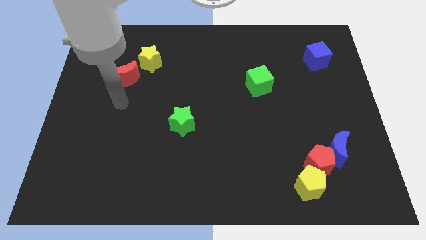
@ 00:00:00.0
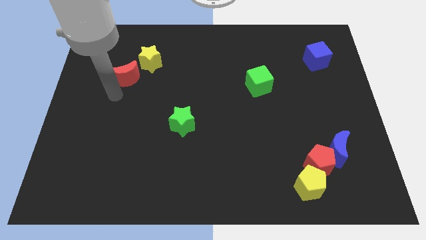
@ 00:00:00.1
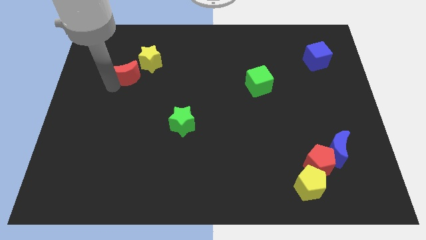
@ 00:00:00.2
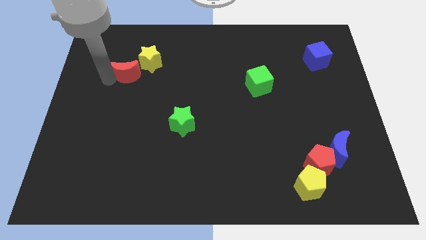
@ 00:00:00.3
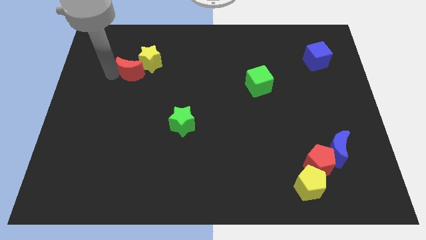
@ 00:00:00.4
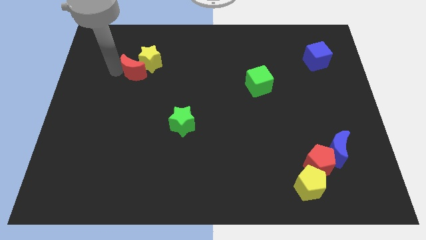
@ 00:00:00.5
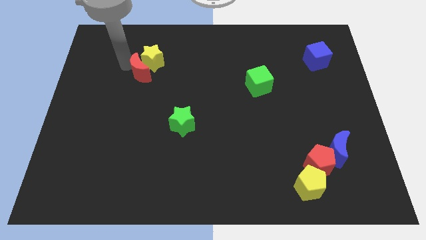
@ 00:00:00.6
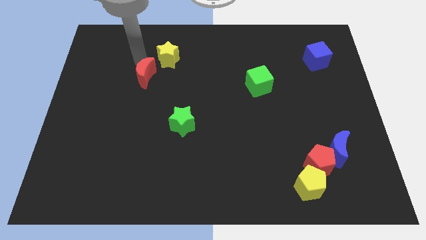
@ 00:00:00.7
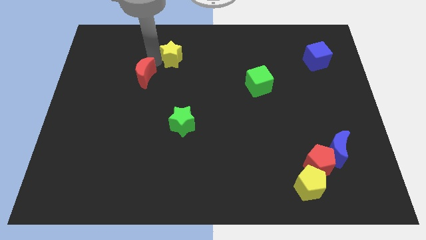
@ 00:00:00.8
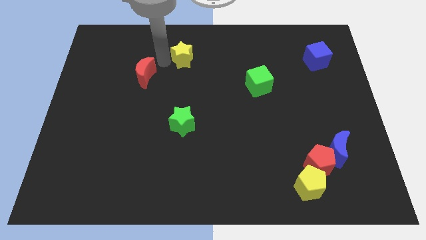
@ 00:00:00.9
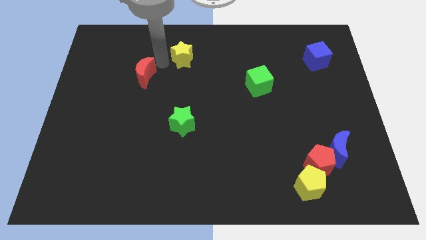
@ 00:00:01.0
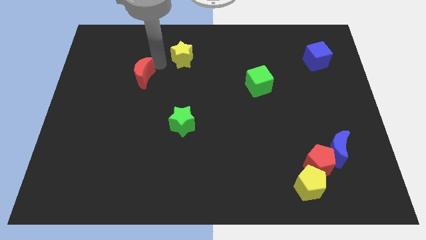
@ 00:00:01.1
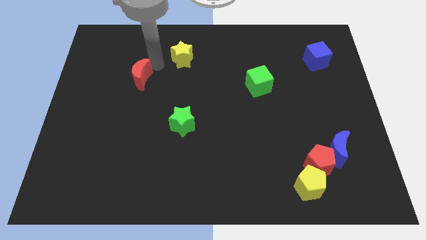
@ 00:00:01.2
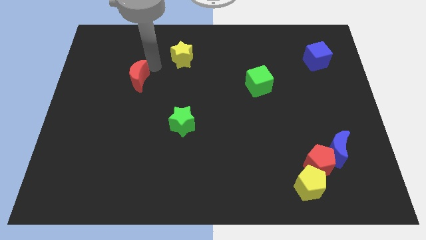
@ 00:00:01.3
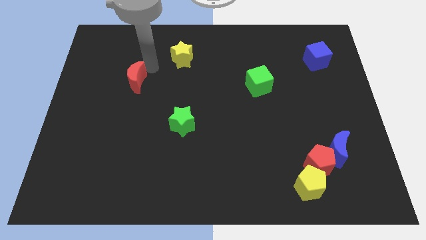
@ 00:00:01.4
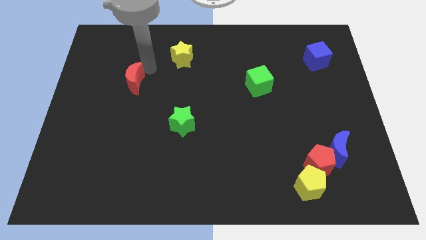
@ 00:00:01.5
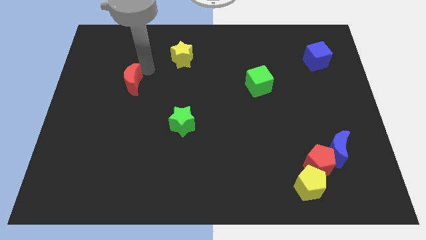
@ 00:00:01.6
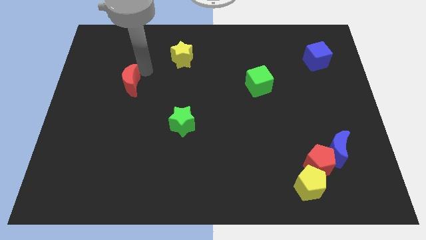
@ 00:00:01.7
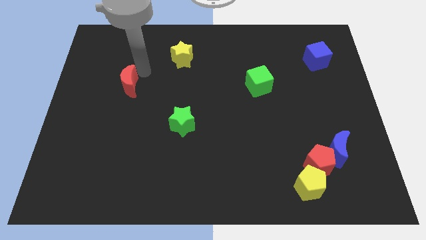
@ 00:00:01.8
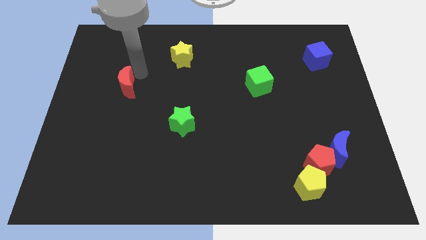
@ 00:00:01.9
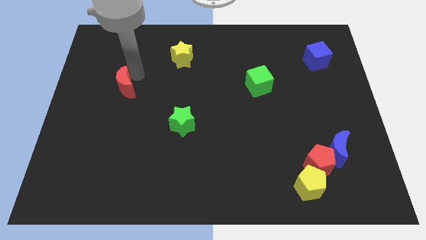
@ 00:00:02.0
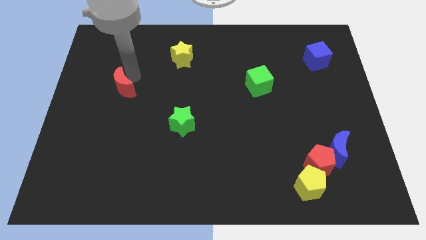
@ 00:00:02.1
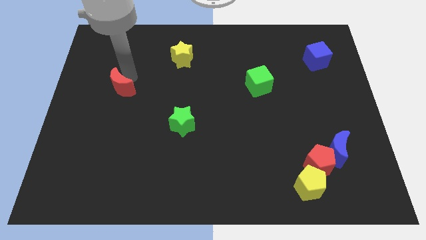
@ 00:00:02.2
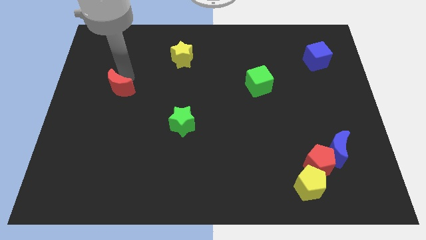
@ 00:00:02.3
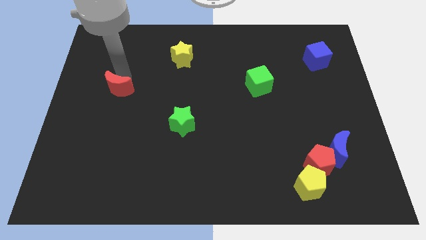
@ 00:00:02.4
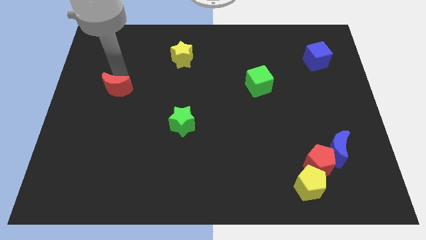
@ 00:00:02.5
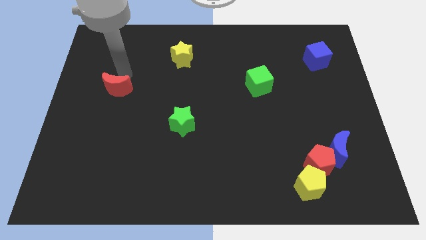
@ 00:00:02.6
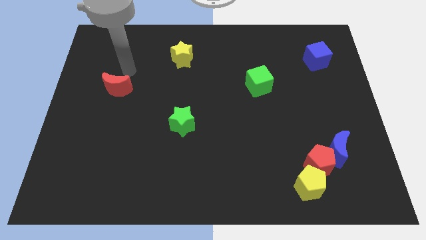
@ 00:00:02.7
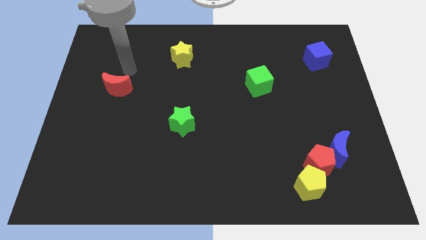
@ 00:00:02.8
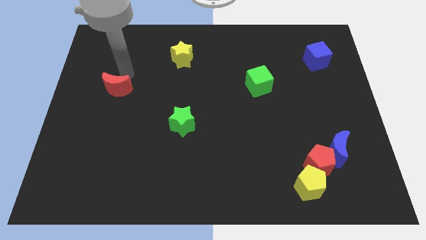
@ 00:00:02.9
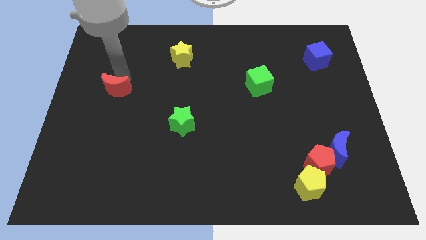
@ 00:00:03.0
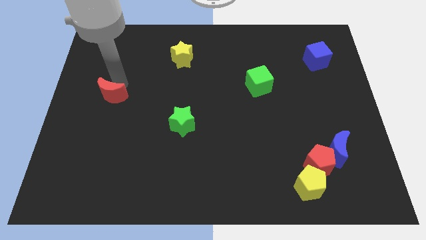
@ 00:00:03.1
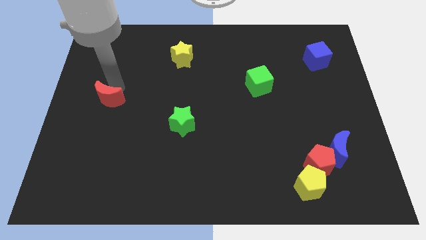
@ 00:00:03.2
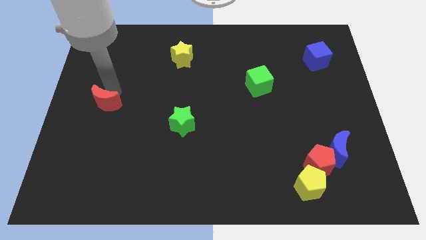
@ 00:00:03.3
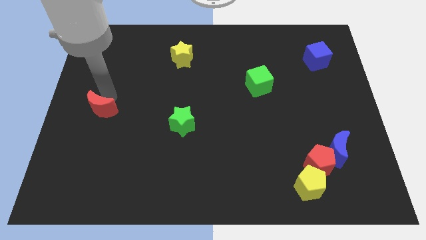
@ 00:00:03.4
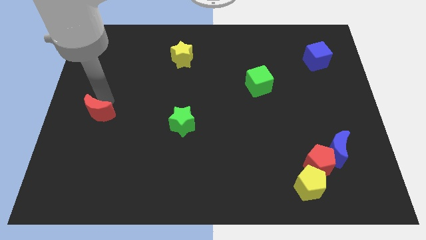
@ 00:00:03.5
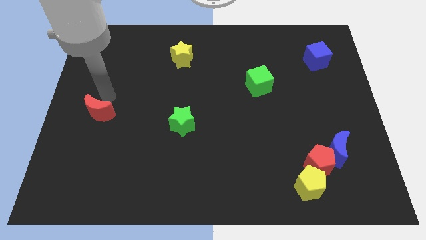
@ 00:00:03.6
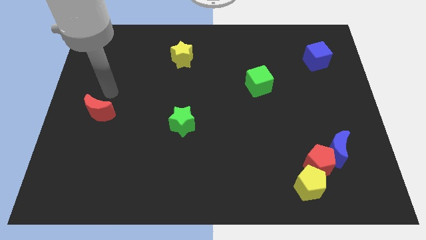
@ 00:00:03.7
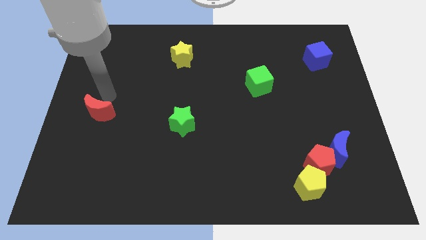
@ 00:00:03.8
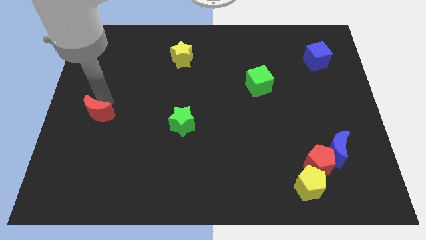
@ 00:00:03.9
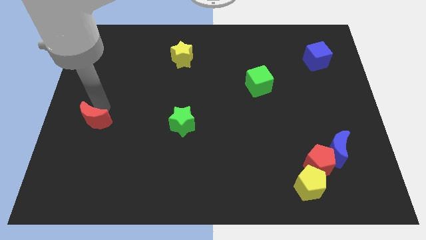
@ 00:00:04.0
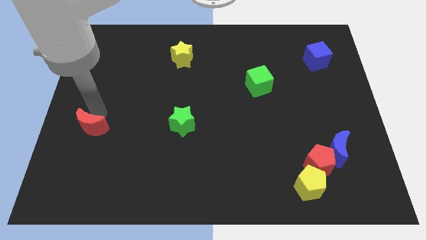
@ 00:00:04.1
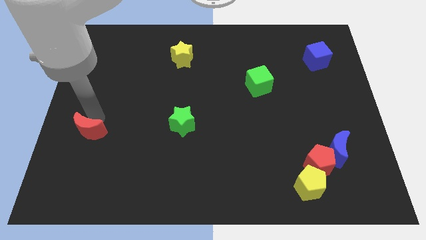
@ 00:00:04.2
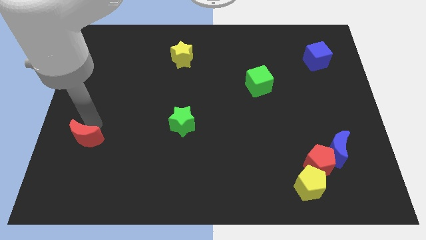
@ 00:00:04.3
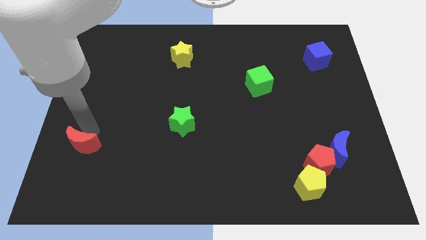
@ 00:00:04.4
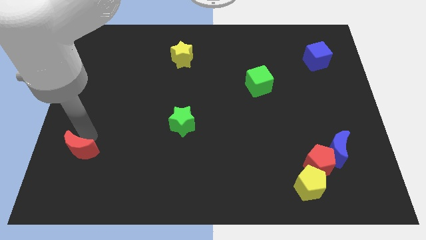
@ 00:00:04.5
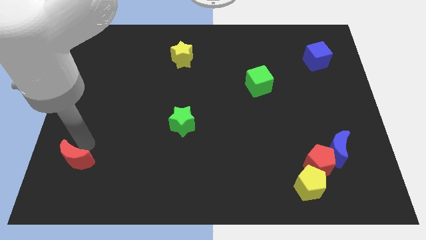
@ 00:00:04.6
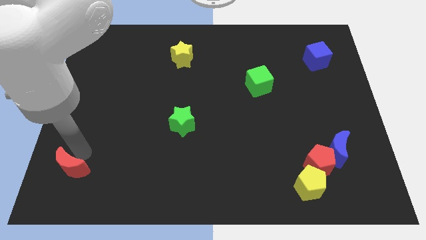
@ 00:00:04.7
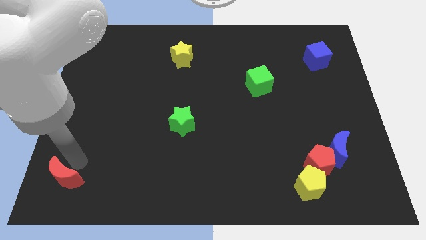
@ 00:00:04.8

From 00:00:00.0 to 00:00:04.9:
slide the red moon to the bottom left corner

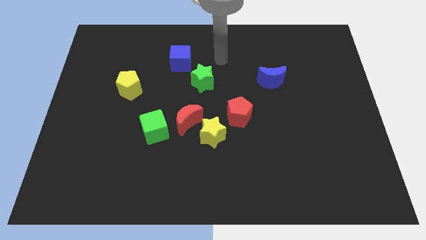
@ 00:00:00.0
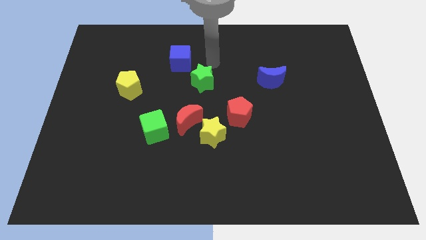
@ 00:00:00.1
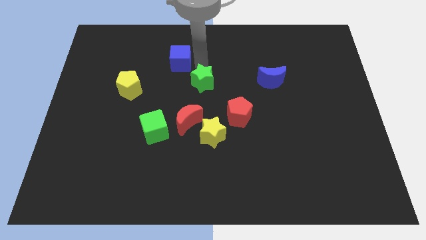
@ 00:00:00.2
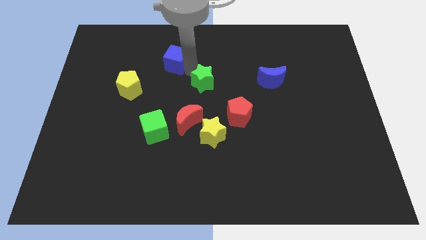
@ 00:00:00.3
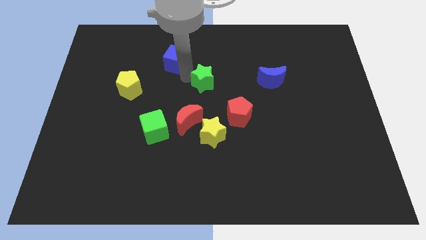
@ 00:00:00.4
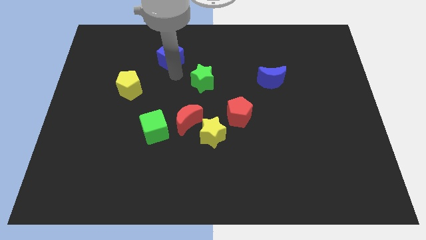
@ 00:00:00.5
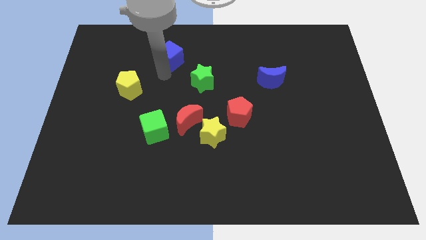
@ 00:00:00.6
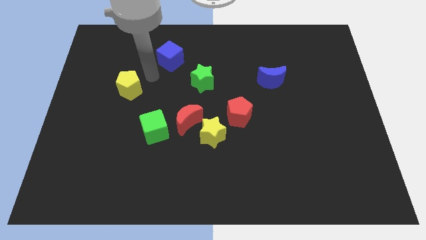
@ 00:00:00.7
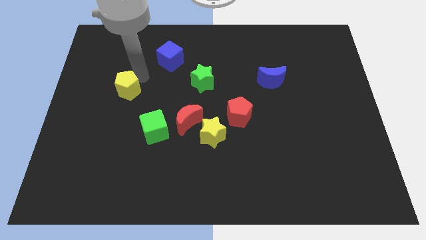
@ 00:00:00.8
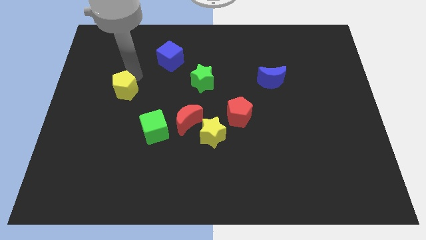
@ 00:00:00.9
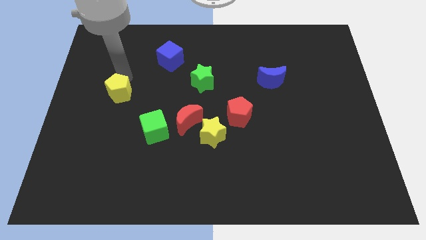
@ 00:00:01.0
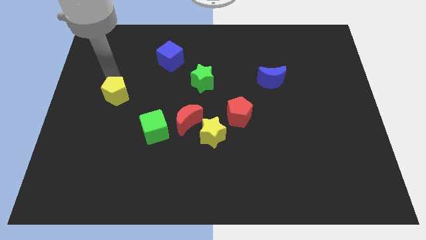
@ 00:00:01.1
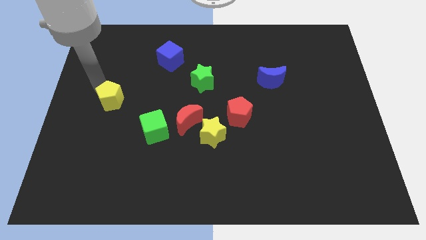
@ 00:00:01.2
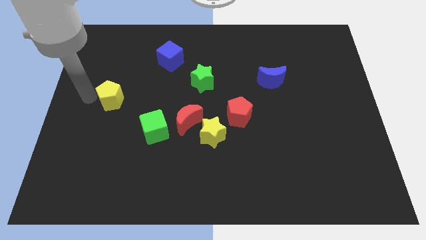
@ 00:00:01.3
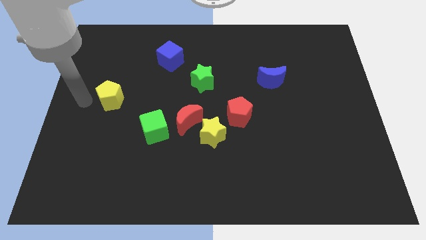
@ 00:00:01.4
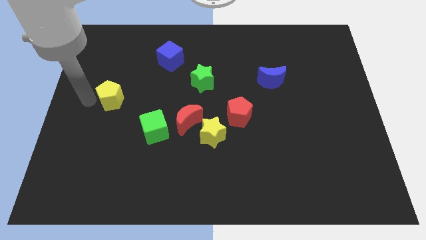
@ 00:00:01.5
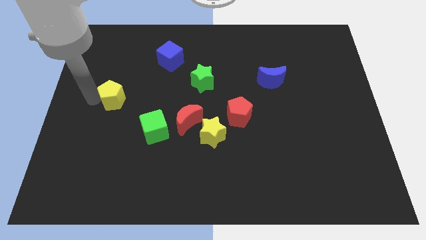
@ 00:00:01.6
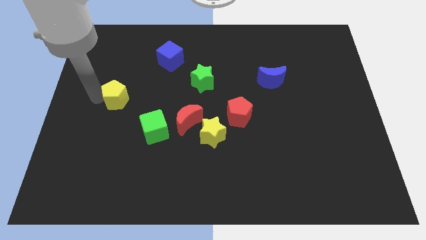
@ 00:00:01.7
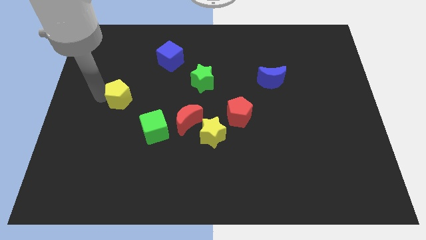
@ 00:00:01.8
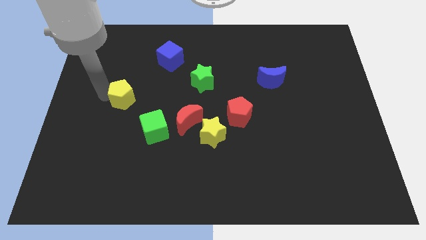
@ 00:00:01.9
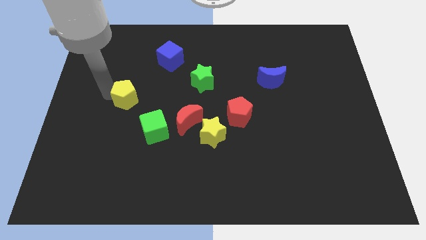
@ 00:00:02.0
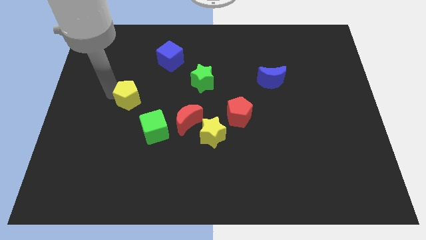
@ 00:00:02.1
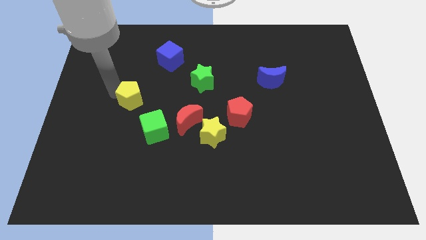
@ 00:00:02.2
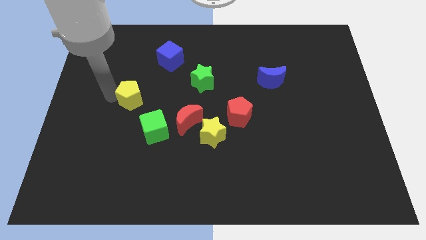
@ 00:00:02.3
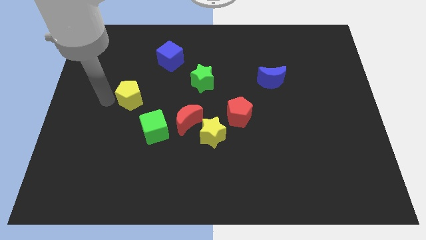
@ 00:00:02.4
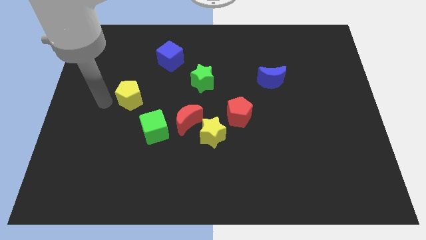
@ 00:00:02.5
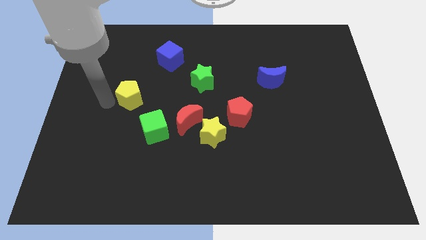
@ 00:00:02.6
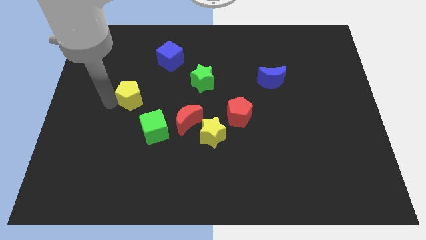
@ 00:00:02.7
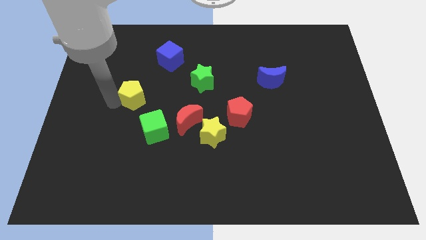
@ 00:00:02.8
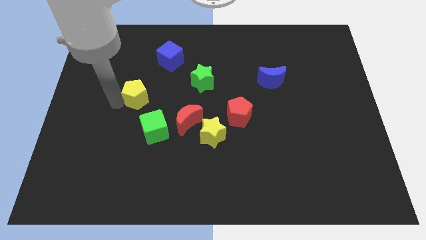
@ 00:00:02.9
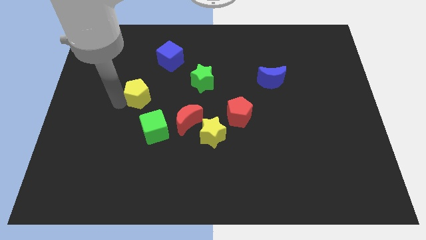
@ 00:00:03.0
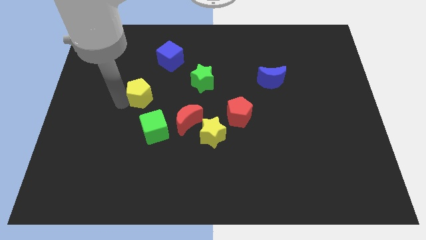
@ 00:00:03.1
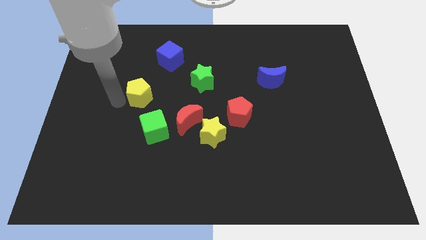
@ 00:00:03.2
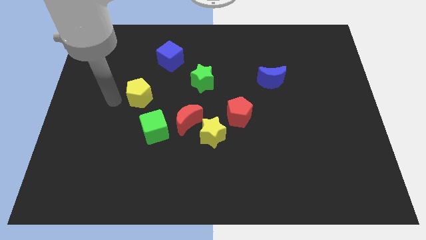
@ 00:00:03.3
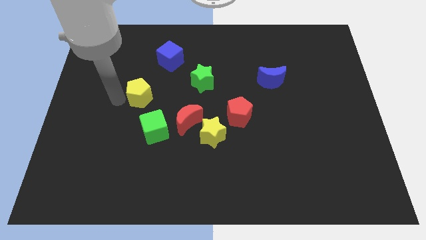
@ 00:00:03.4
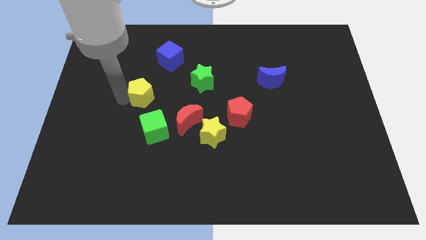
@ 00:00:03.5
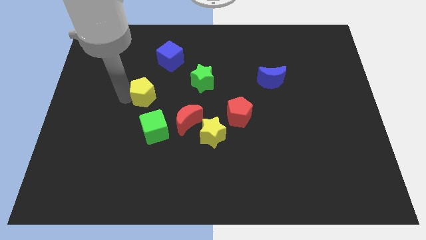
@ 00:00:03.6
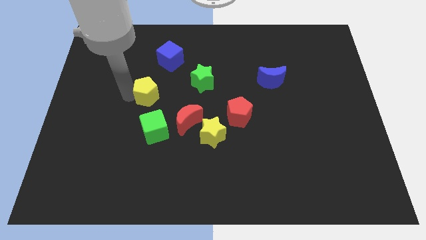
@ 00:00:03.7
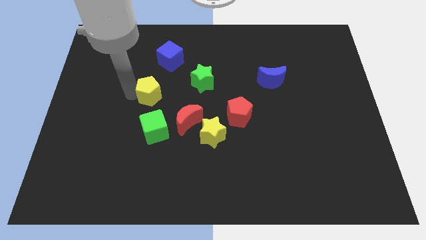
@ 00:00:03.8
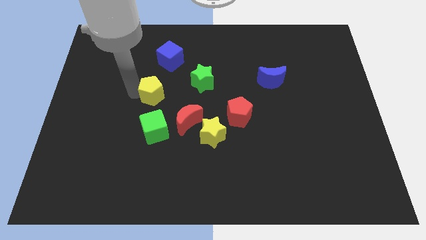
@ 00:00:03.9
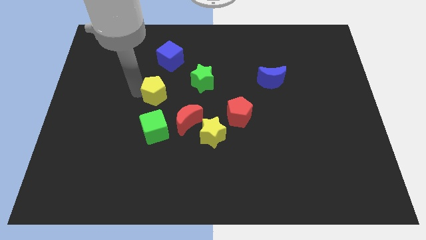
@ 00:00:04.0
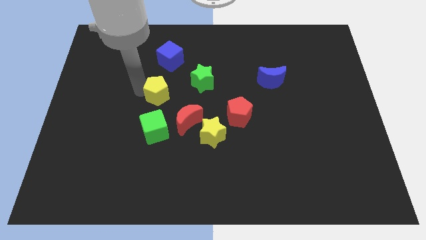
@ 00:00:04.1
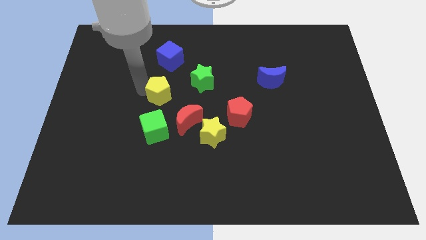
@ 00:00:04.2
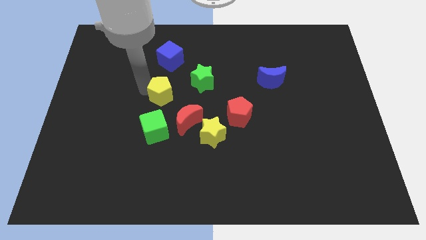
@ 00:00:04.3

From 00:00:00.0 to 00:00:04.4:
push the yellow pentagon to the middle of the board
